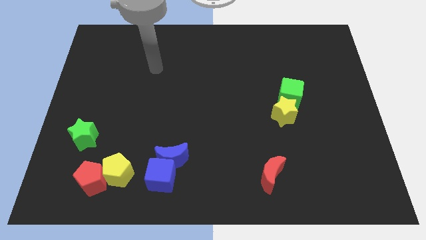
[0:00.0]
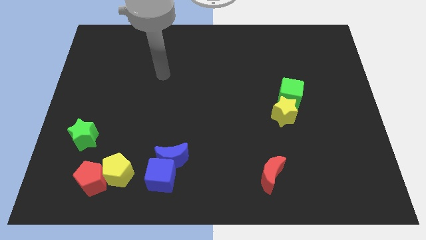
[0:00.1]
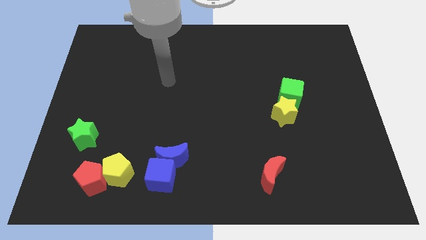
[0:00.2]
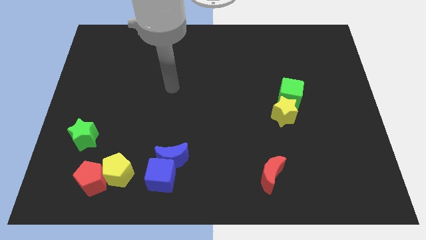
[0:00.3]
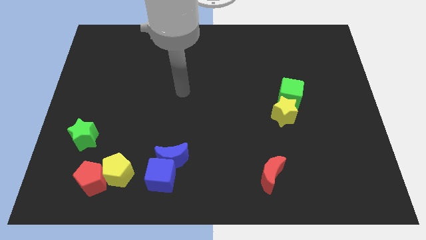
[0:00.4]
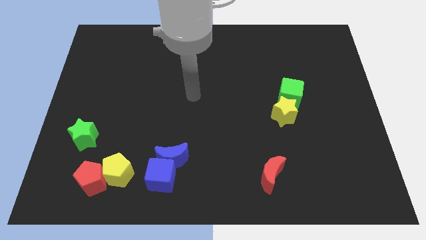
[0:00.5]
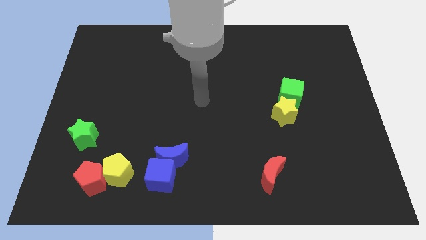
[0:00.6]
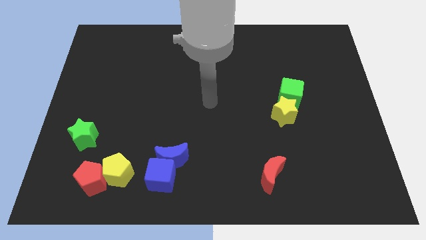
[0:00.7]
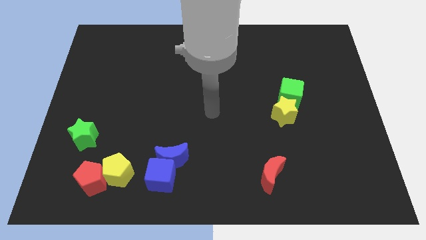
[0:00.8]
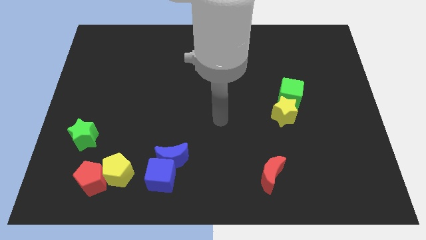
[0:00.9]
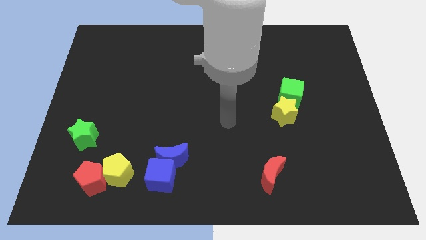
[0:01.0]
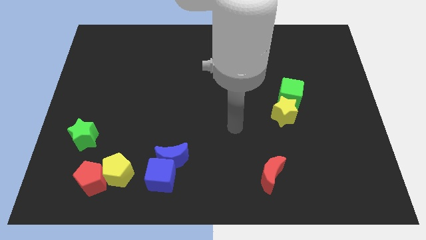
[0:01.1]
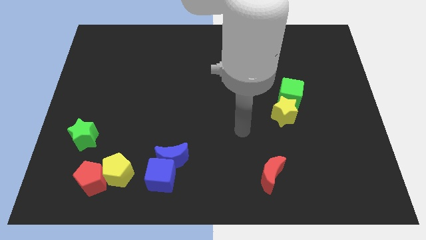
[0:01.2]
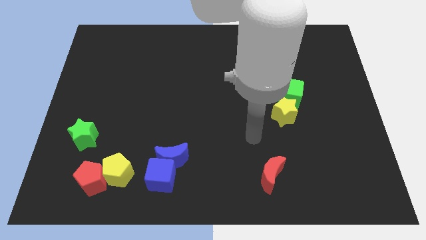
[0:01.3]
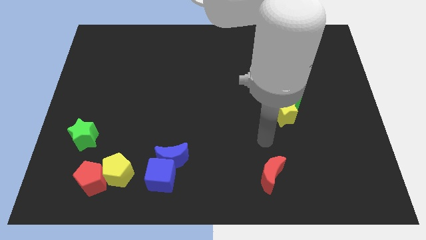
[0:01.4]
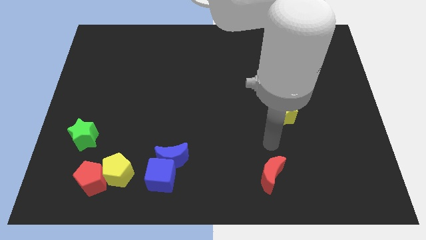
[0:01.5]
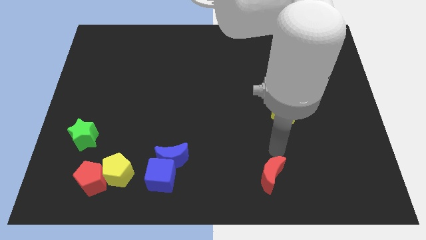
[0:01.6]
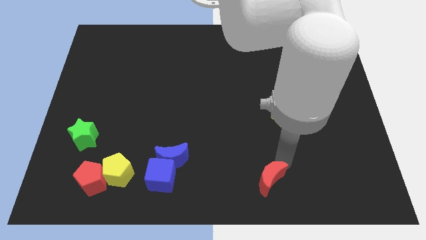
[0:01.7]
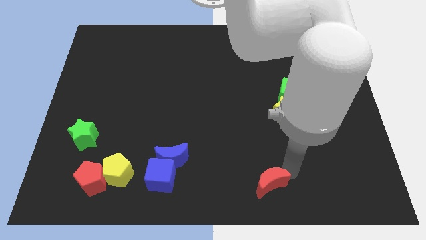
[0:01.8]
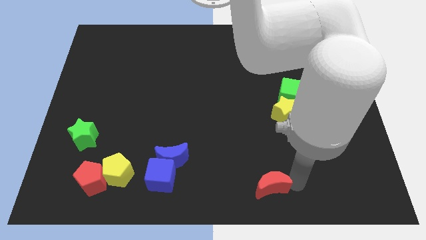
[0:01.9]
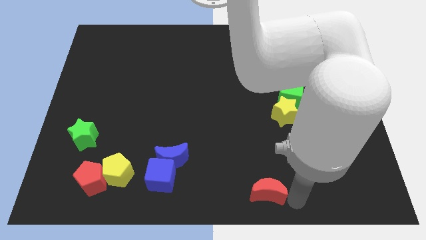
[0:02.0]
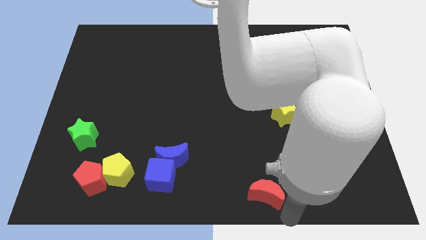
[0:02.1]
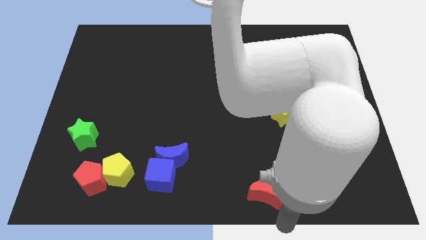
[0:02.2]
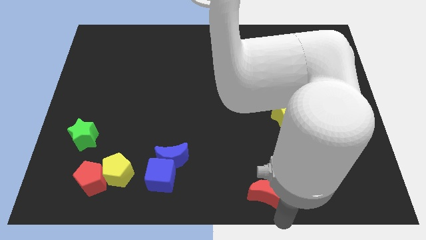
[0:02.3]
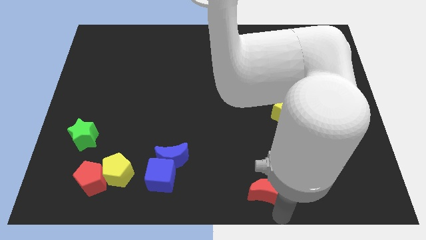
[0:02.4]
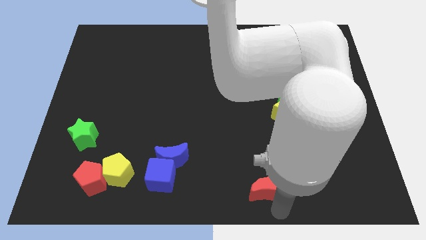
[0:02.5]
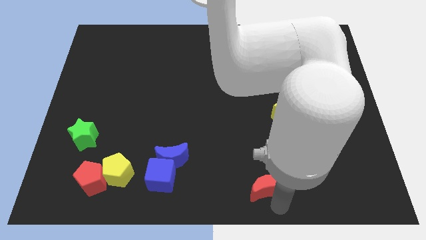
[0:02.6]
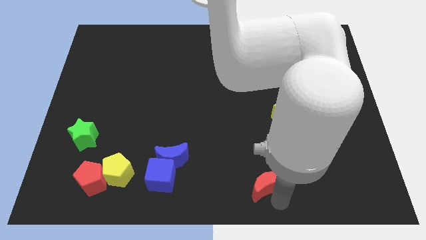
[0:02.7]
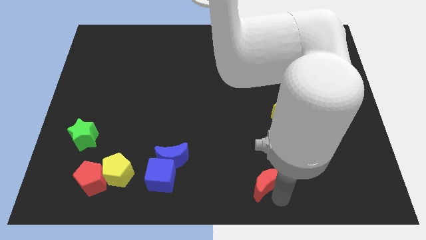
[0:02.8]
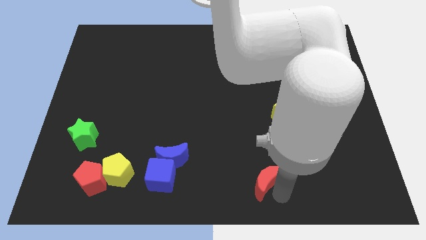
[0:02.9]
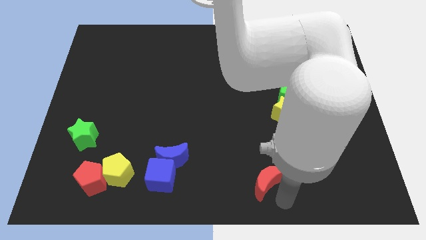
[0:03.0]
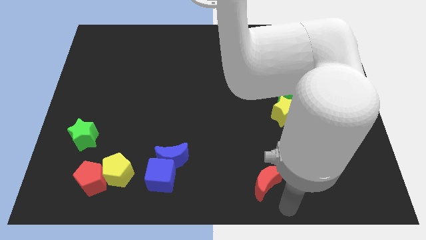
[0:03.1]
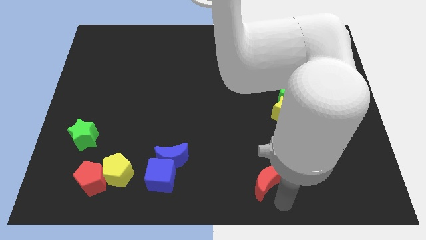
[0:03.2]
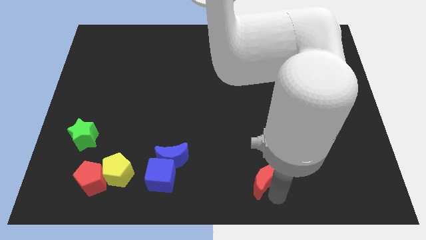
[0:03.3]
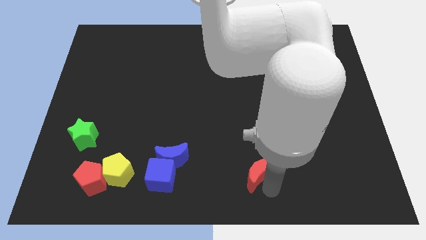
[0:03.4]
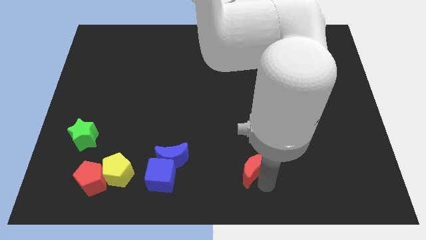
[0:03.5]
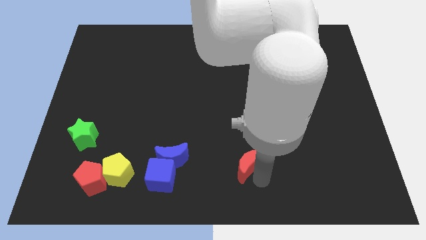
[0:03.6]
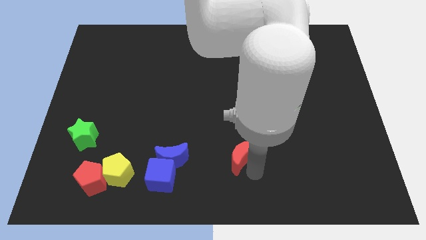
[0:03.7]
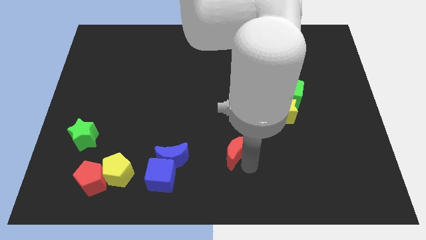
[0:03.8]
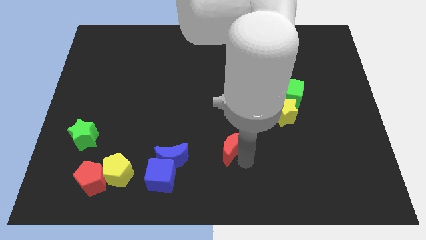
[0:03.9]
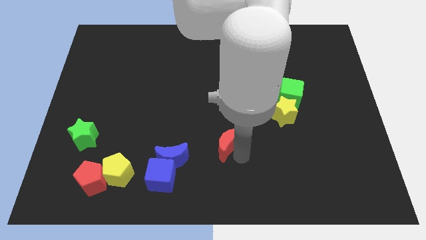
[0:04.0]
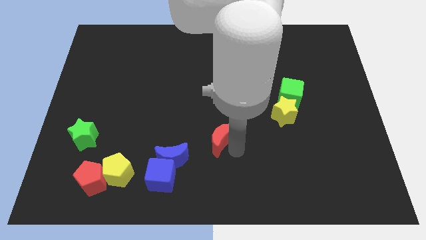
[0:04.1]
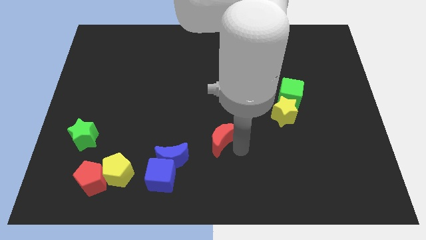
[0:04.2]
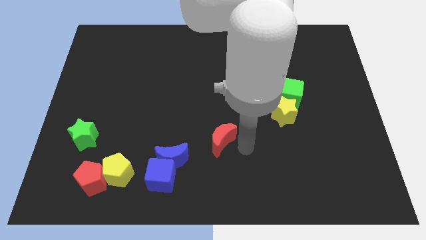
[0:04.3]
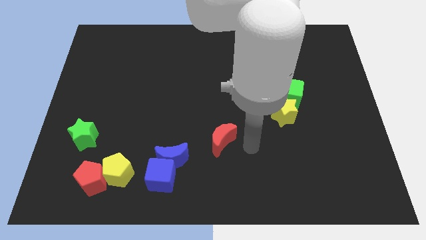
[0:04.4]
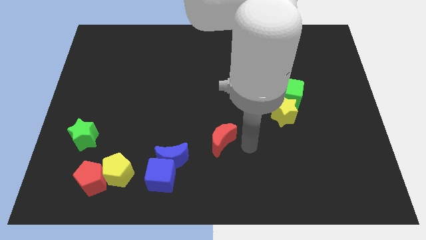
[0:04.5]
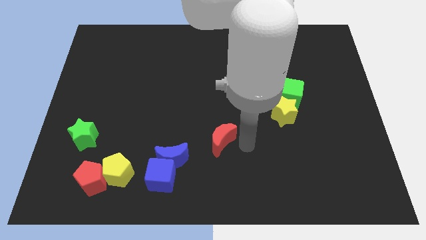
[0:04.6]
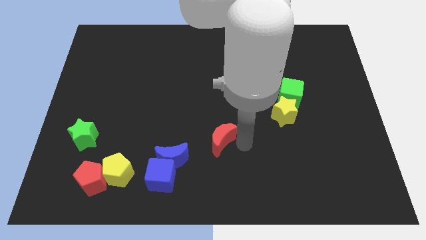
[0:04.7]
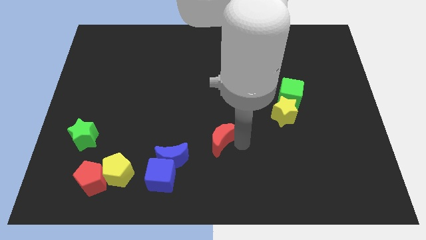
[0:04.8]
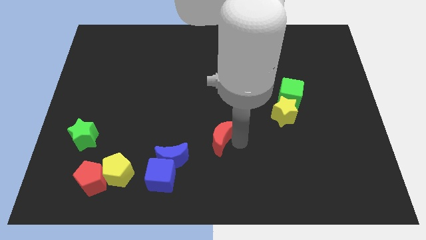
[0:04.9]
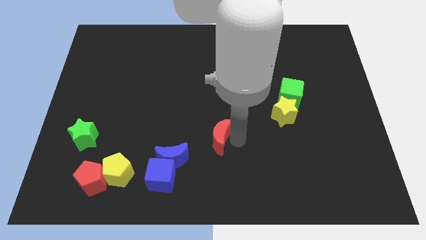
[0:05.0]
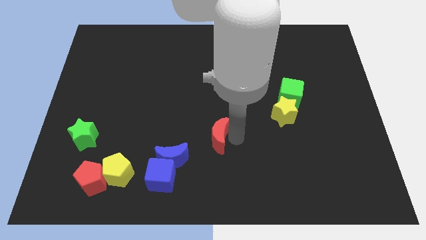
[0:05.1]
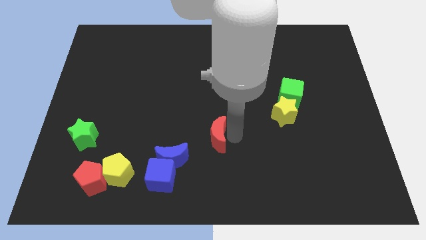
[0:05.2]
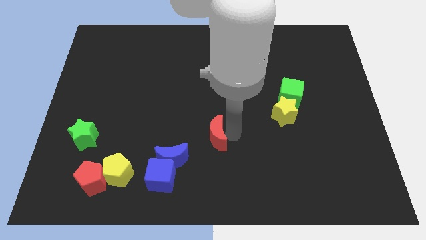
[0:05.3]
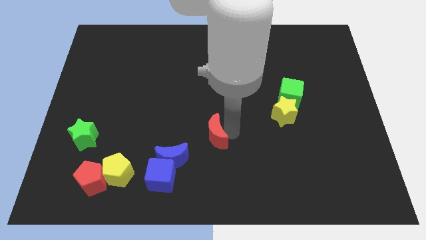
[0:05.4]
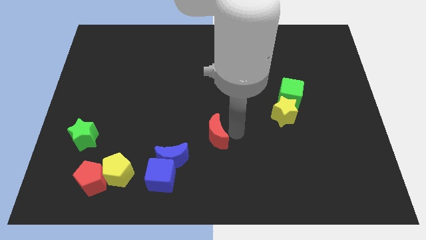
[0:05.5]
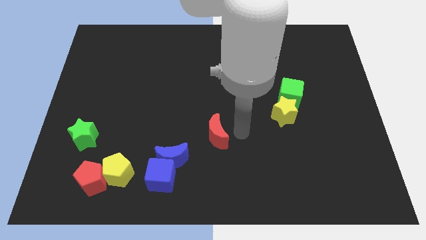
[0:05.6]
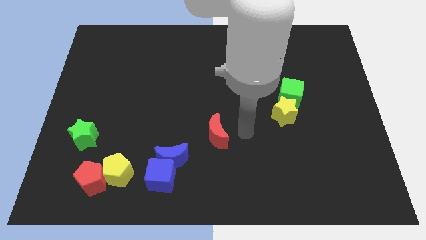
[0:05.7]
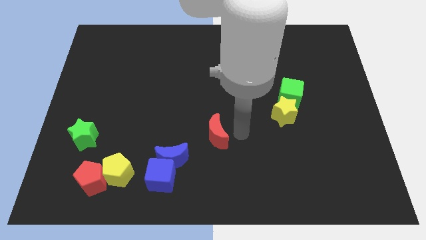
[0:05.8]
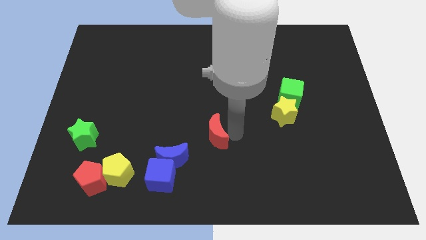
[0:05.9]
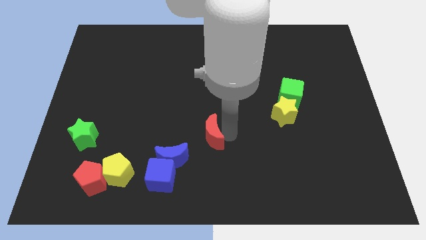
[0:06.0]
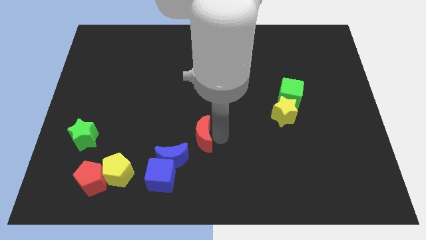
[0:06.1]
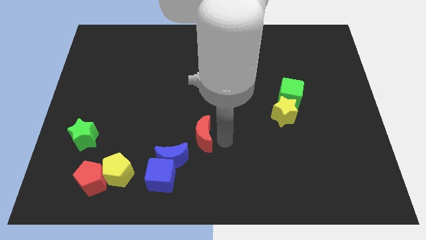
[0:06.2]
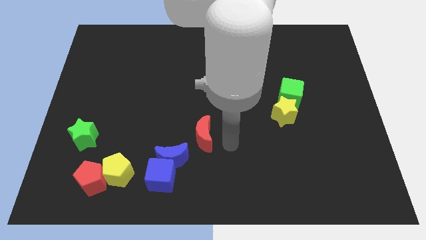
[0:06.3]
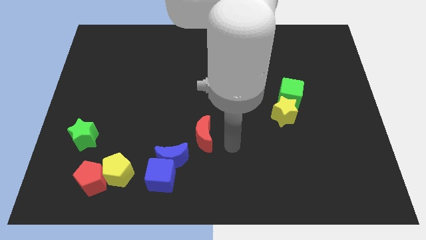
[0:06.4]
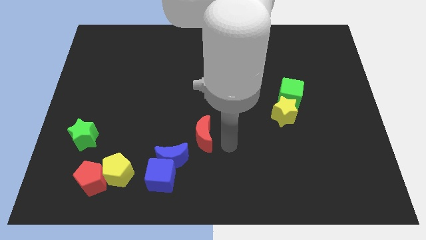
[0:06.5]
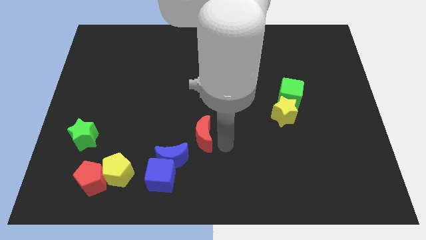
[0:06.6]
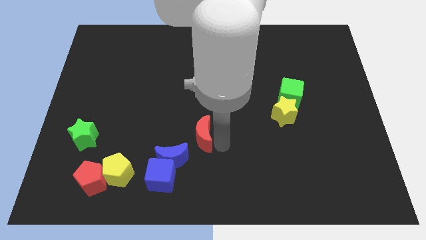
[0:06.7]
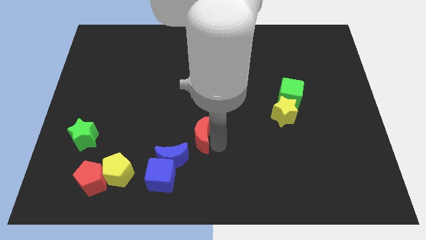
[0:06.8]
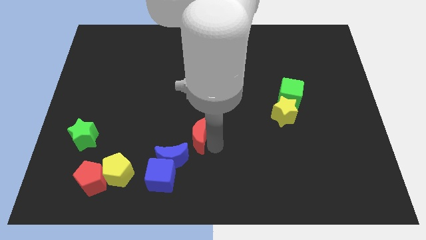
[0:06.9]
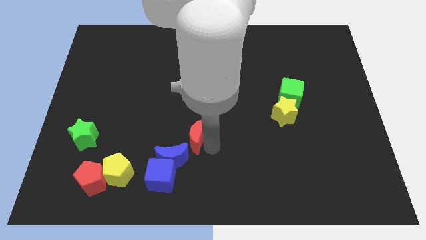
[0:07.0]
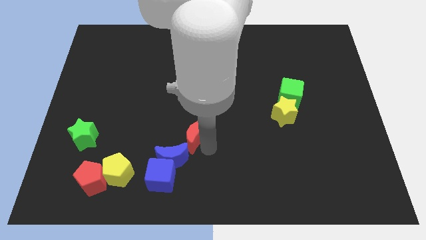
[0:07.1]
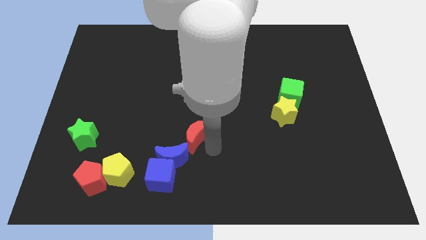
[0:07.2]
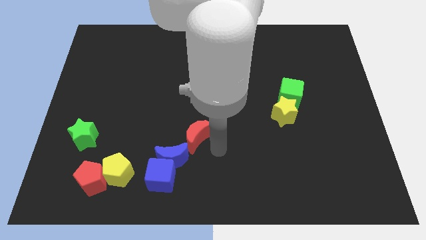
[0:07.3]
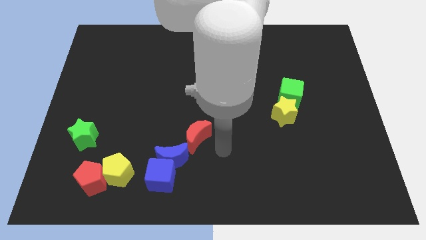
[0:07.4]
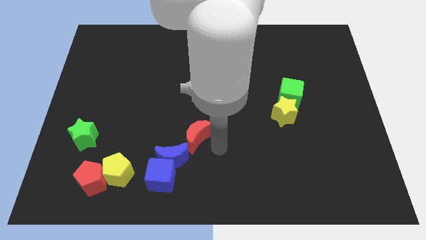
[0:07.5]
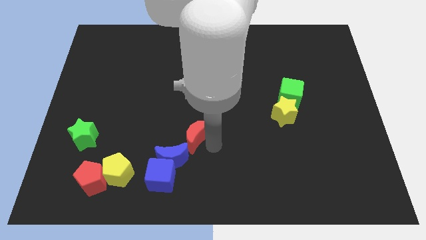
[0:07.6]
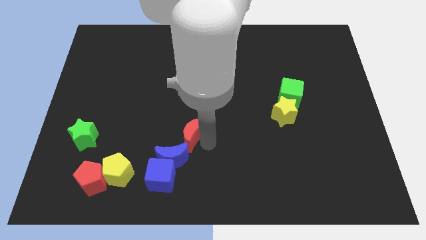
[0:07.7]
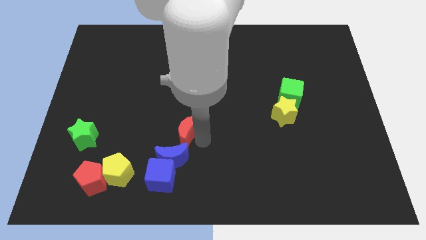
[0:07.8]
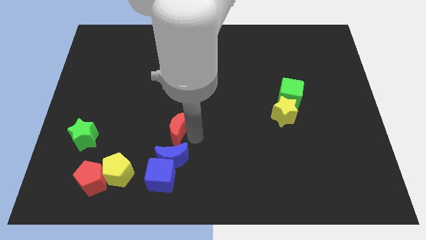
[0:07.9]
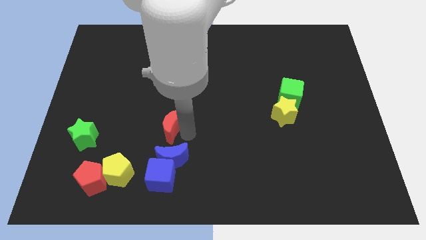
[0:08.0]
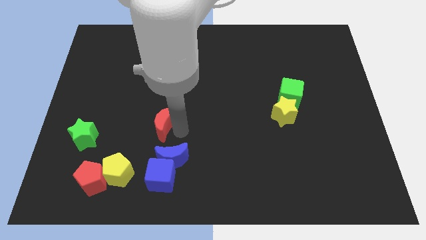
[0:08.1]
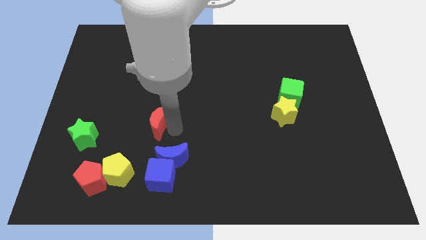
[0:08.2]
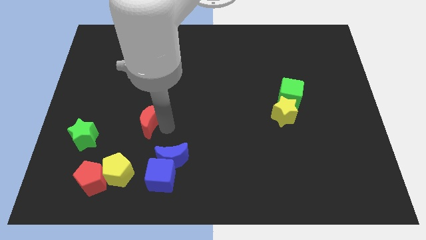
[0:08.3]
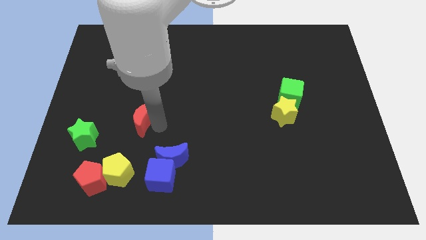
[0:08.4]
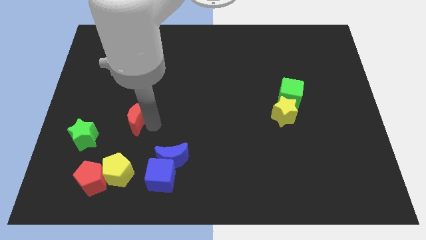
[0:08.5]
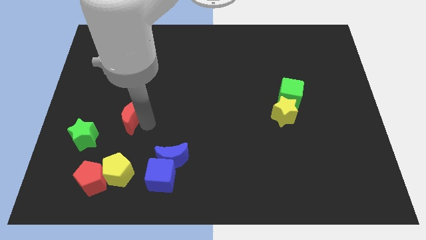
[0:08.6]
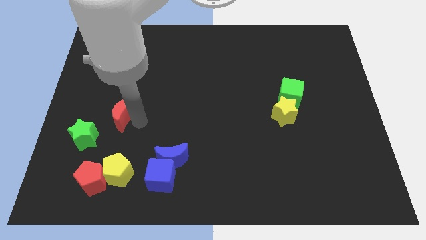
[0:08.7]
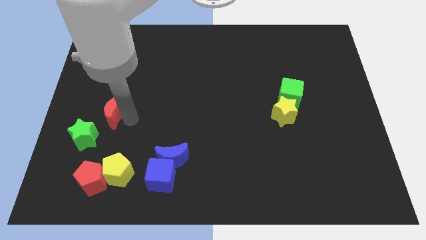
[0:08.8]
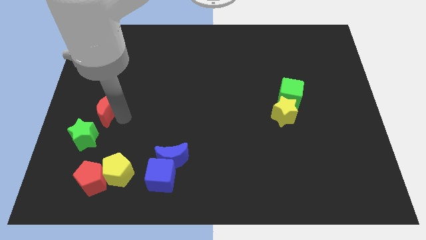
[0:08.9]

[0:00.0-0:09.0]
push the red moon to the top side of the green star
